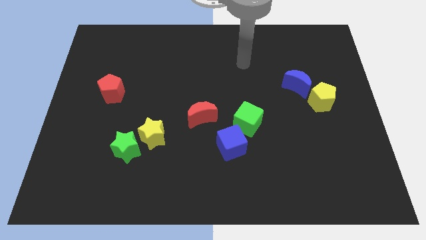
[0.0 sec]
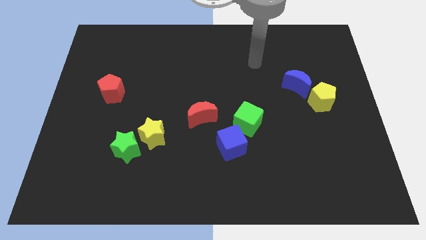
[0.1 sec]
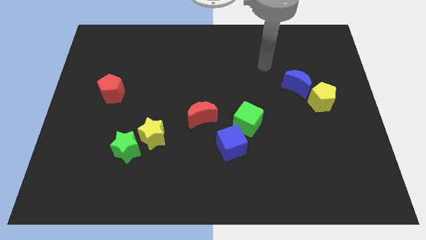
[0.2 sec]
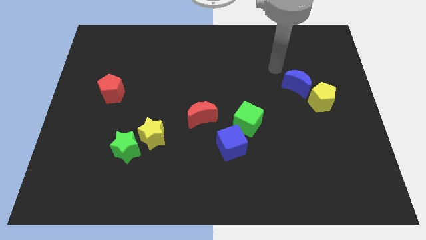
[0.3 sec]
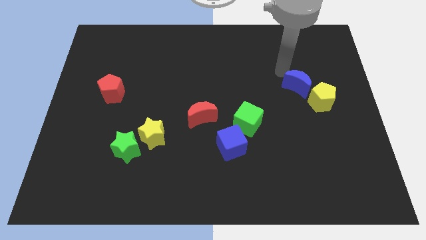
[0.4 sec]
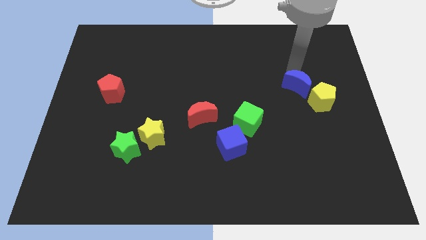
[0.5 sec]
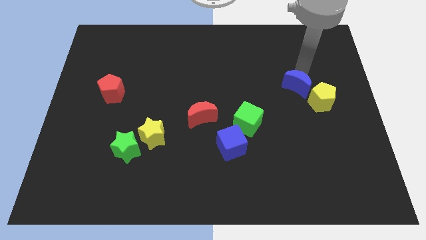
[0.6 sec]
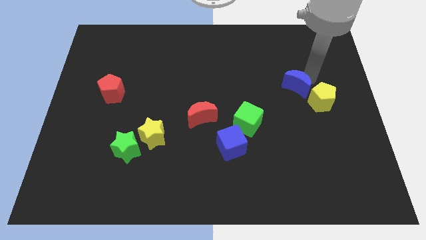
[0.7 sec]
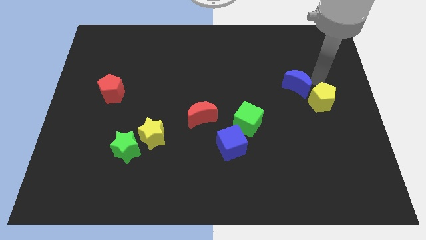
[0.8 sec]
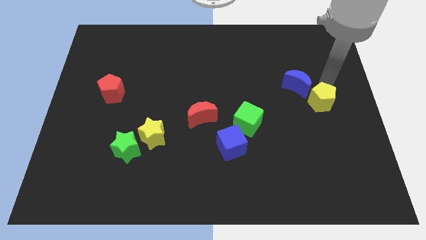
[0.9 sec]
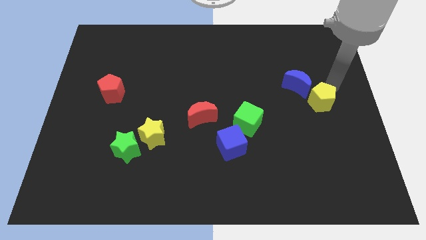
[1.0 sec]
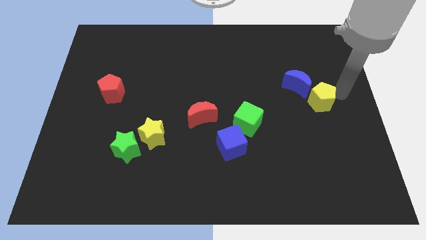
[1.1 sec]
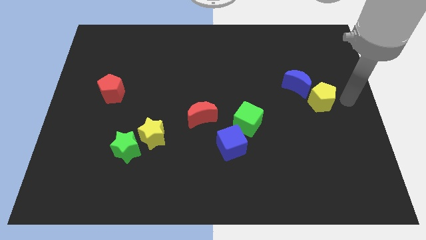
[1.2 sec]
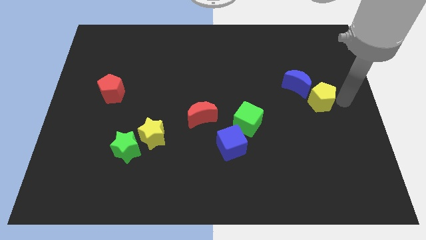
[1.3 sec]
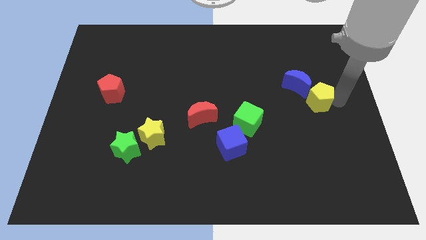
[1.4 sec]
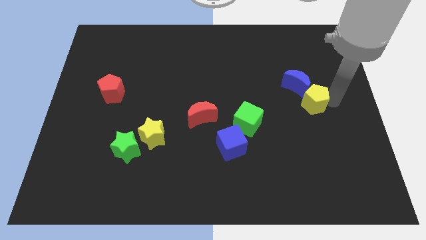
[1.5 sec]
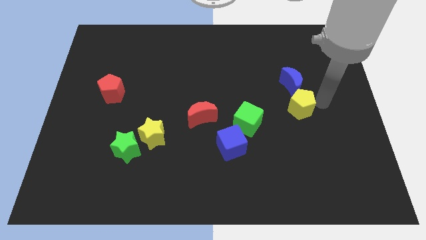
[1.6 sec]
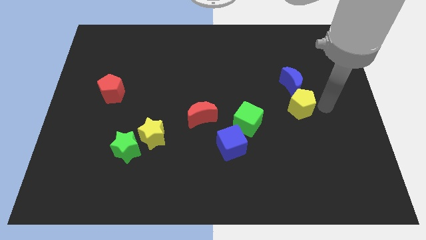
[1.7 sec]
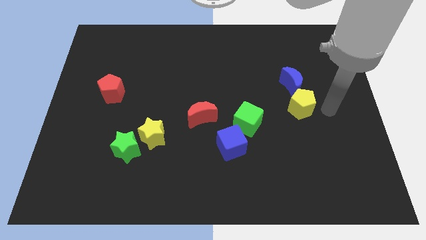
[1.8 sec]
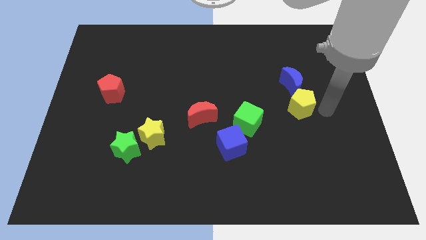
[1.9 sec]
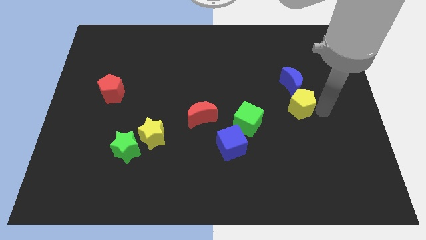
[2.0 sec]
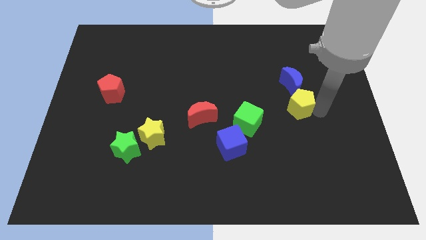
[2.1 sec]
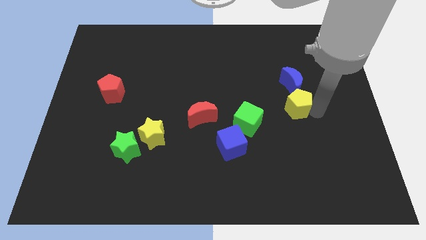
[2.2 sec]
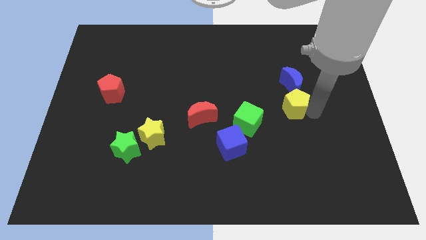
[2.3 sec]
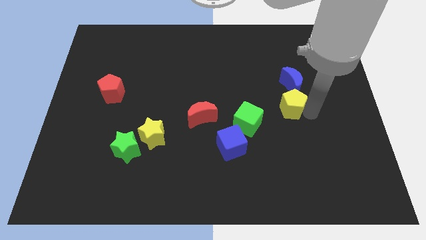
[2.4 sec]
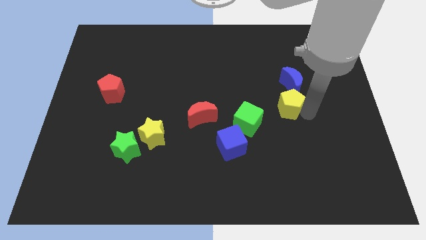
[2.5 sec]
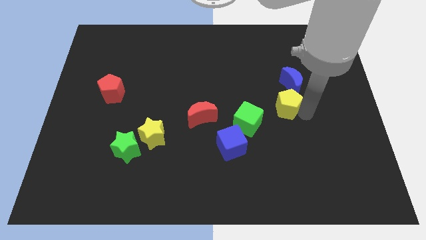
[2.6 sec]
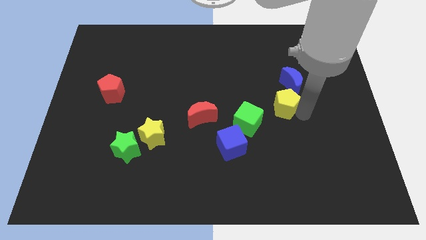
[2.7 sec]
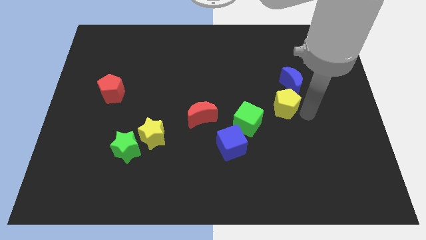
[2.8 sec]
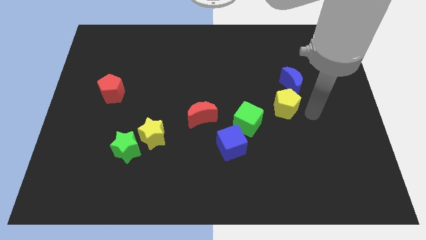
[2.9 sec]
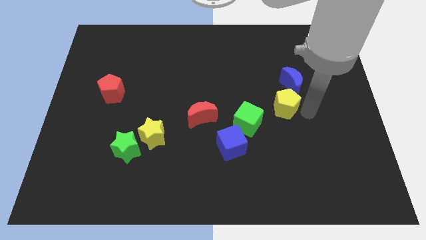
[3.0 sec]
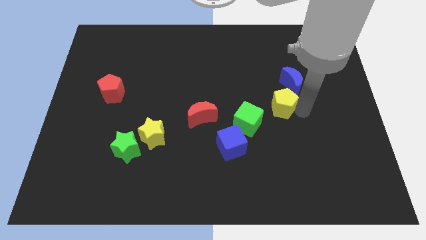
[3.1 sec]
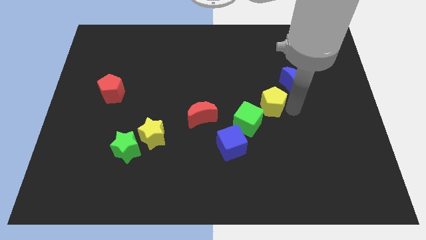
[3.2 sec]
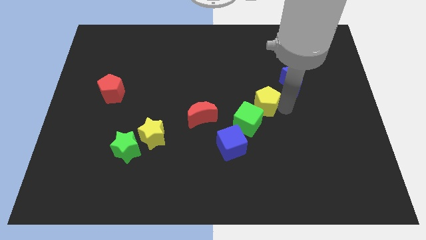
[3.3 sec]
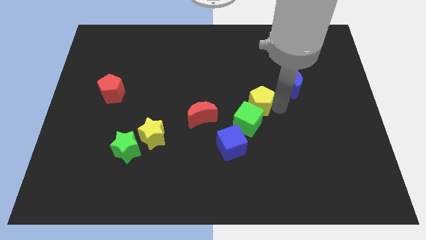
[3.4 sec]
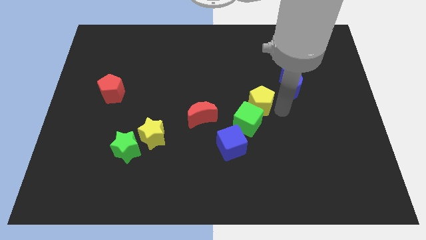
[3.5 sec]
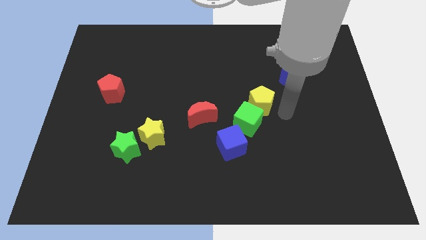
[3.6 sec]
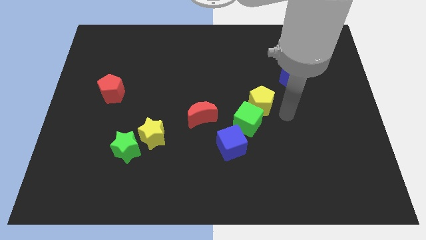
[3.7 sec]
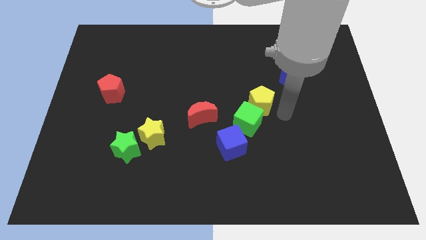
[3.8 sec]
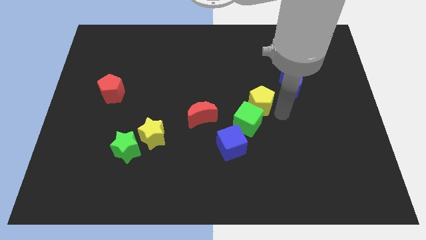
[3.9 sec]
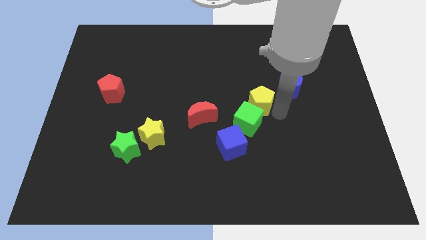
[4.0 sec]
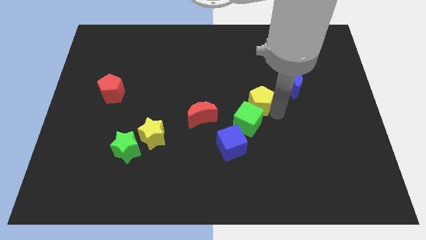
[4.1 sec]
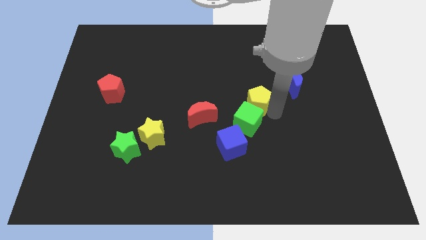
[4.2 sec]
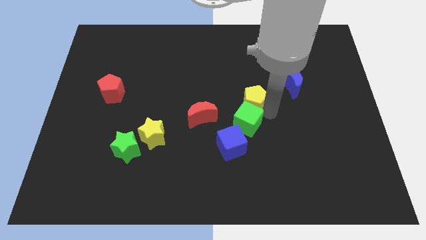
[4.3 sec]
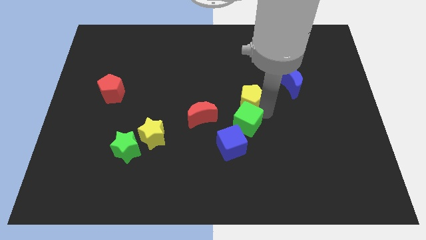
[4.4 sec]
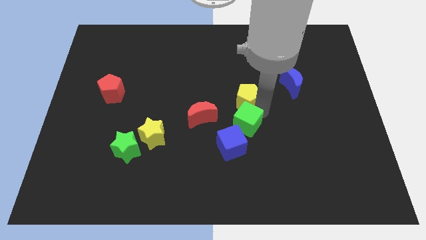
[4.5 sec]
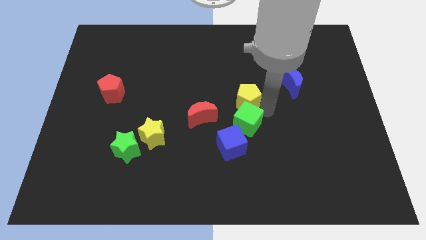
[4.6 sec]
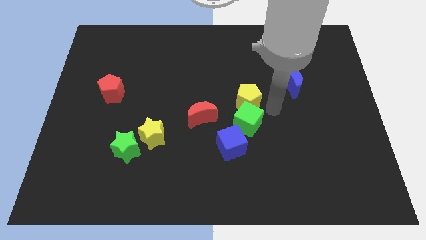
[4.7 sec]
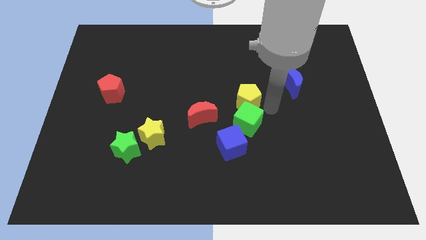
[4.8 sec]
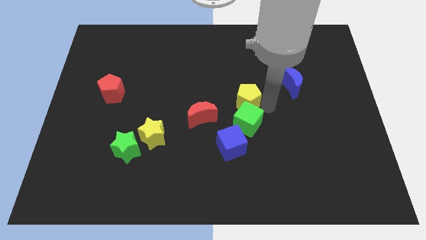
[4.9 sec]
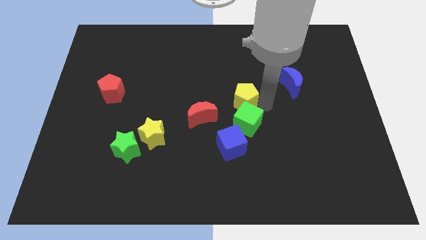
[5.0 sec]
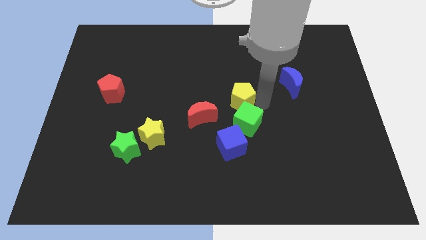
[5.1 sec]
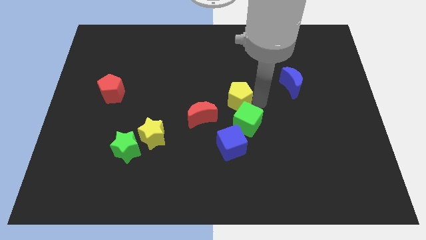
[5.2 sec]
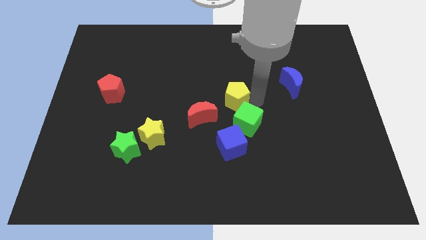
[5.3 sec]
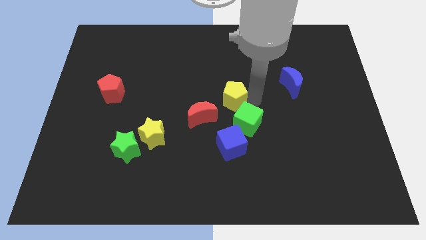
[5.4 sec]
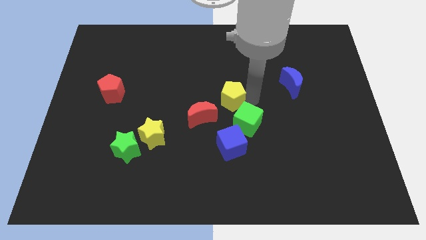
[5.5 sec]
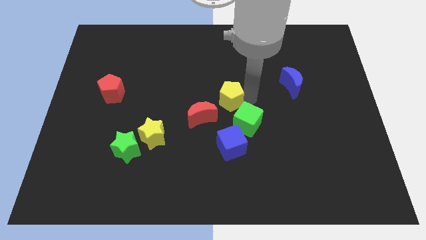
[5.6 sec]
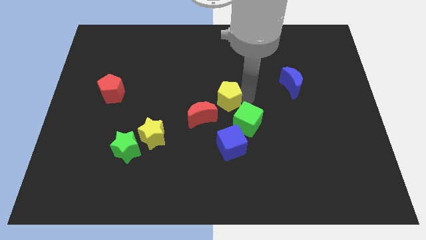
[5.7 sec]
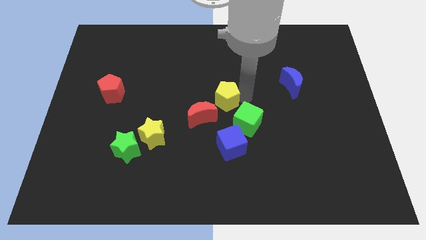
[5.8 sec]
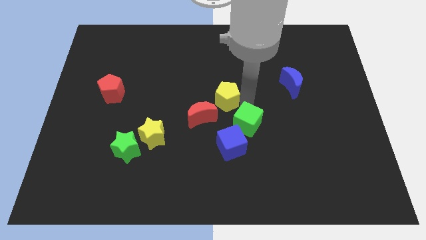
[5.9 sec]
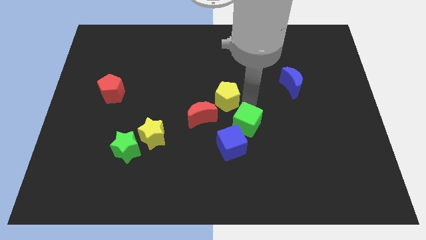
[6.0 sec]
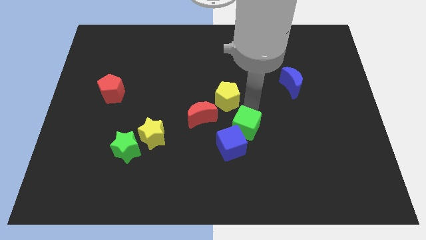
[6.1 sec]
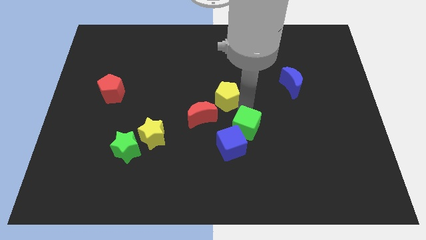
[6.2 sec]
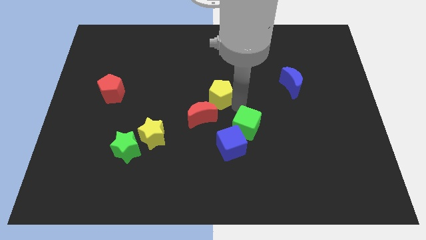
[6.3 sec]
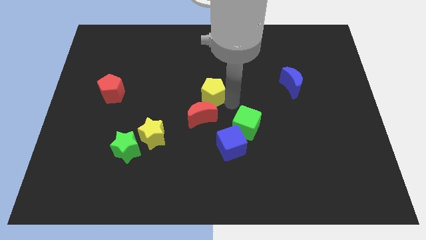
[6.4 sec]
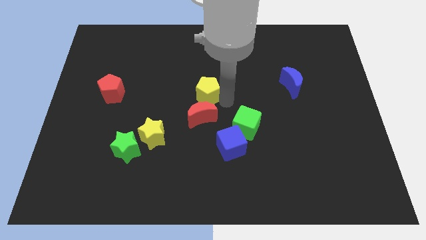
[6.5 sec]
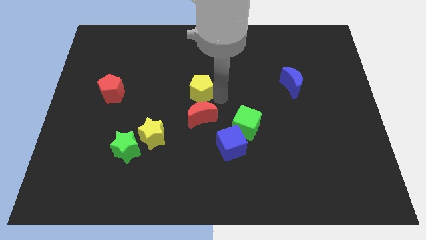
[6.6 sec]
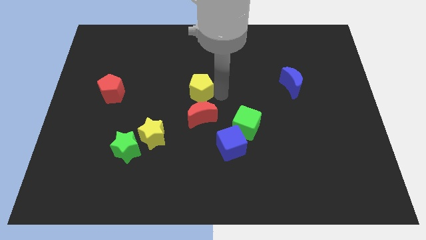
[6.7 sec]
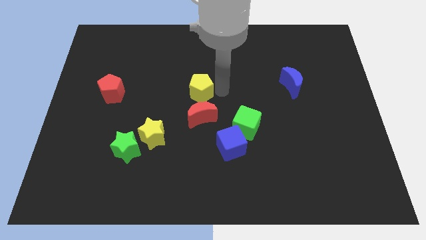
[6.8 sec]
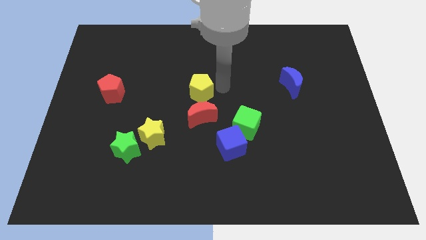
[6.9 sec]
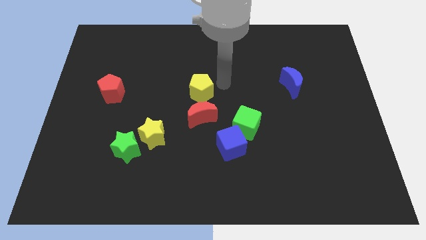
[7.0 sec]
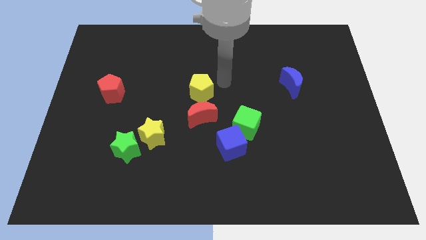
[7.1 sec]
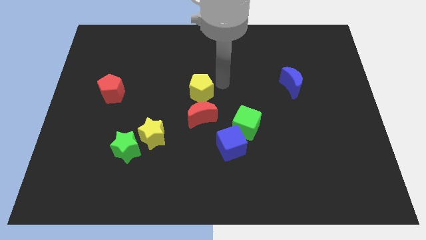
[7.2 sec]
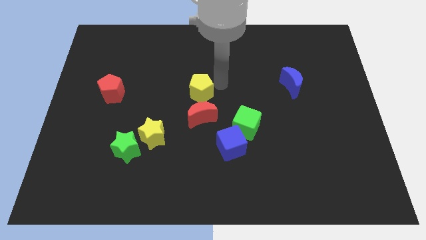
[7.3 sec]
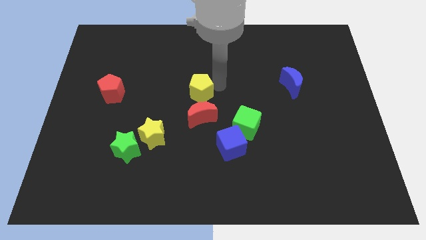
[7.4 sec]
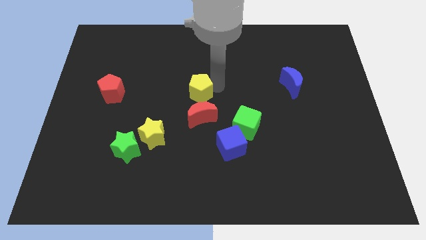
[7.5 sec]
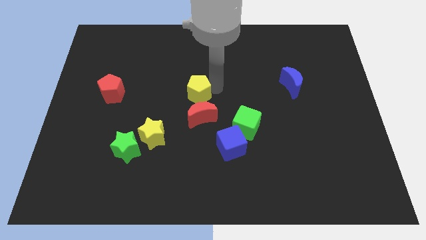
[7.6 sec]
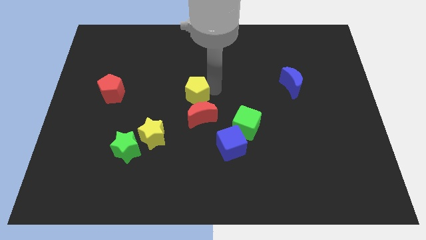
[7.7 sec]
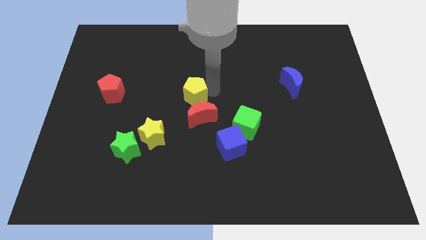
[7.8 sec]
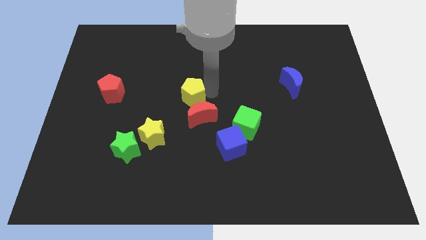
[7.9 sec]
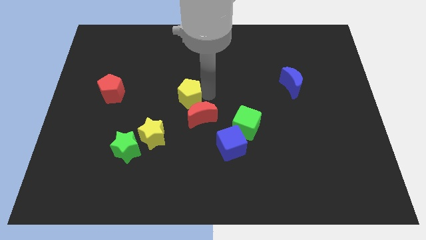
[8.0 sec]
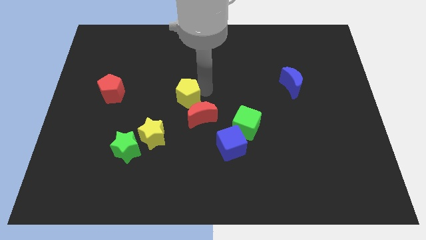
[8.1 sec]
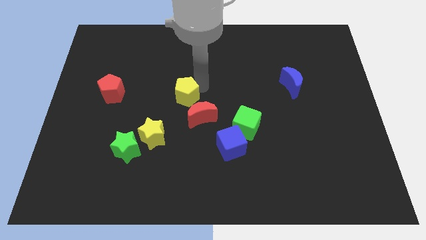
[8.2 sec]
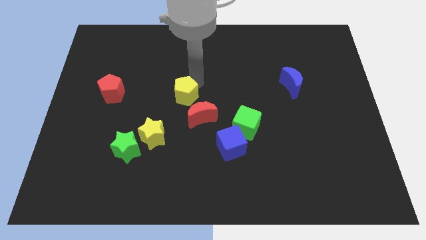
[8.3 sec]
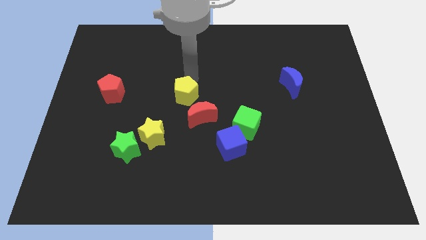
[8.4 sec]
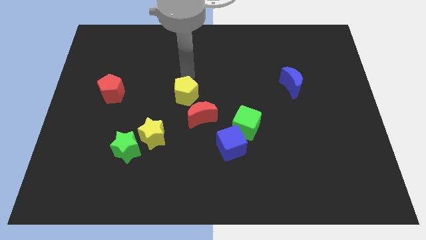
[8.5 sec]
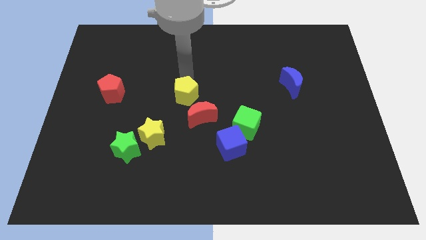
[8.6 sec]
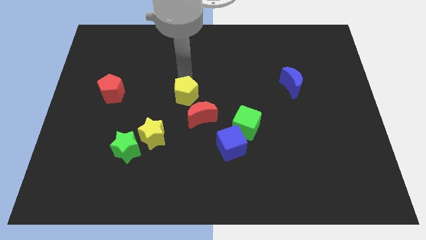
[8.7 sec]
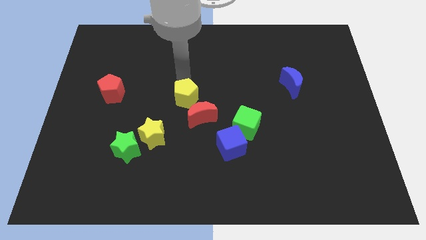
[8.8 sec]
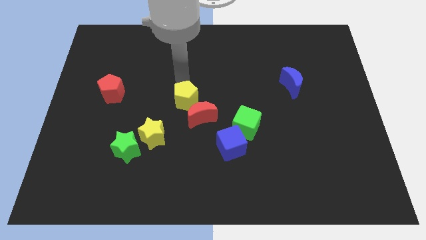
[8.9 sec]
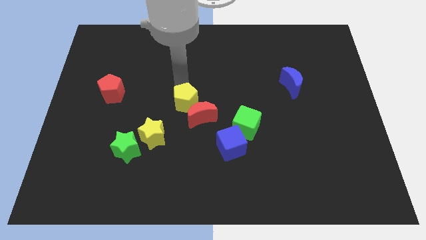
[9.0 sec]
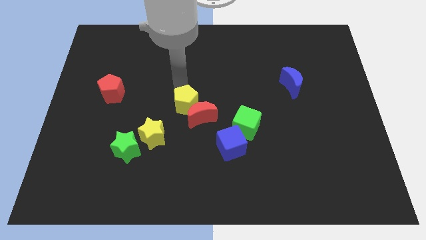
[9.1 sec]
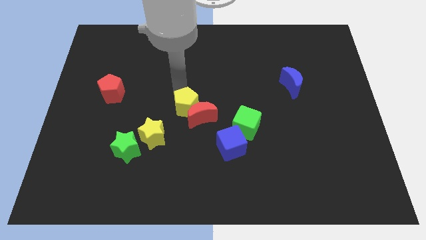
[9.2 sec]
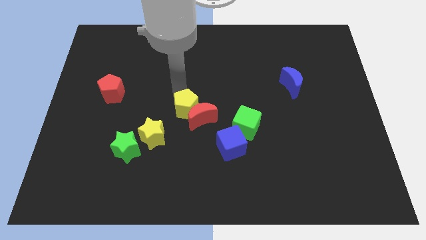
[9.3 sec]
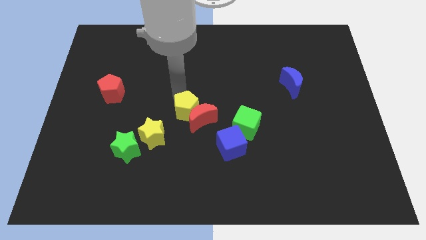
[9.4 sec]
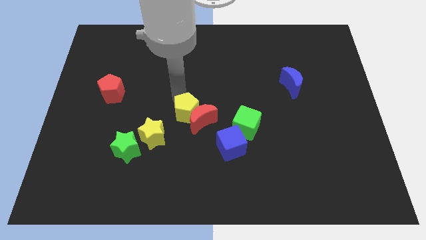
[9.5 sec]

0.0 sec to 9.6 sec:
slide the yellow pentagon left of the green cube
